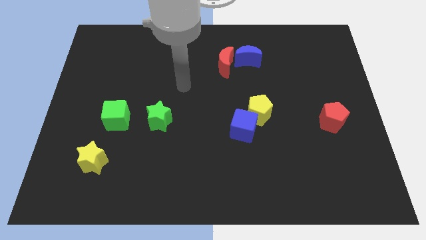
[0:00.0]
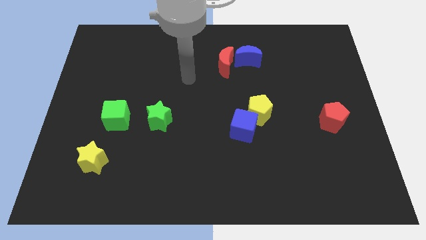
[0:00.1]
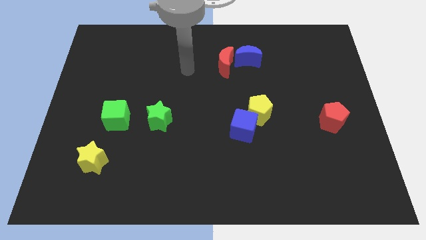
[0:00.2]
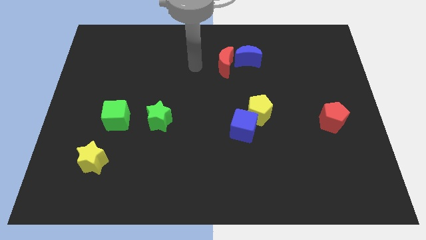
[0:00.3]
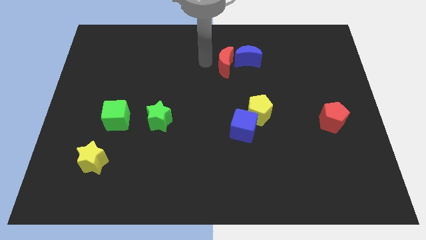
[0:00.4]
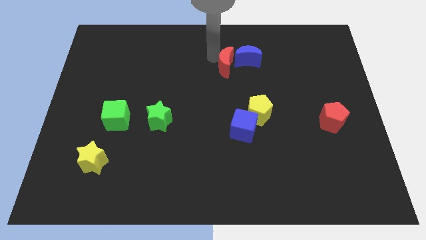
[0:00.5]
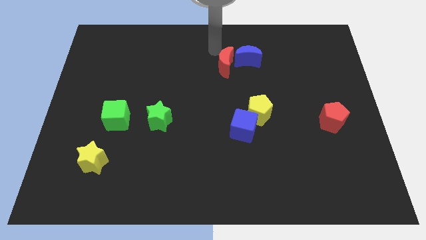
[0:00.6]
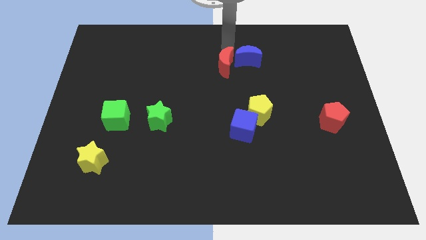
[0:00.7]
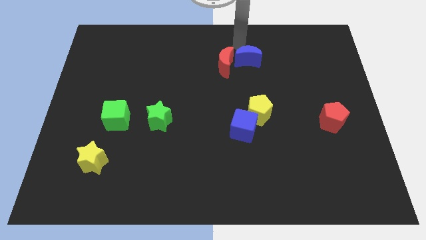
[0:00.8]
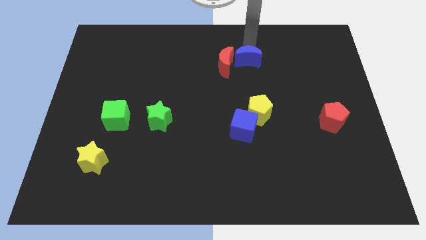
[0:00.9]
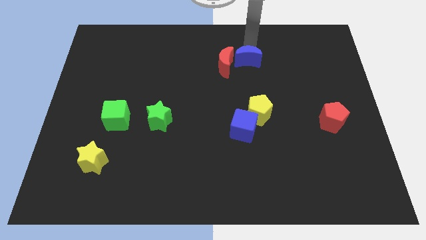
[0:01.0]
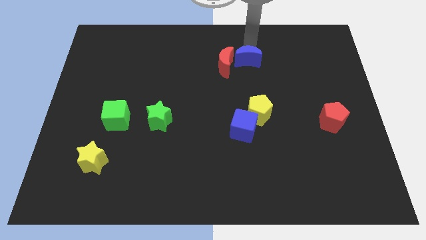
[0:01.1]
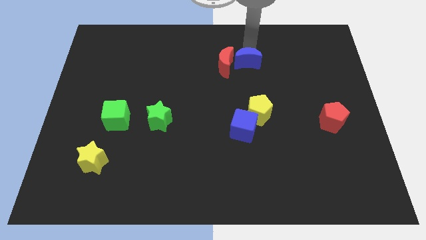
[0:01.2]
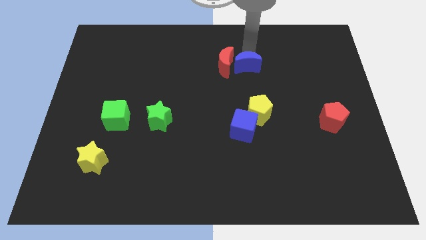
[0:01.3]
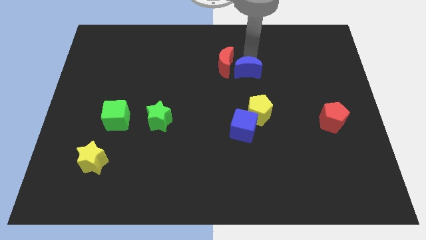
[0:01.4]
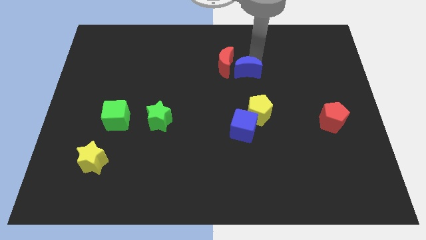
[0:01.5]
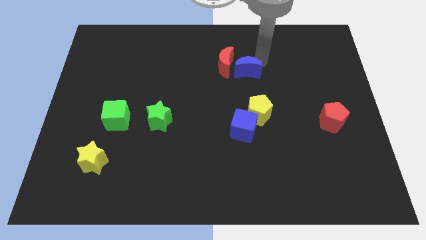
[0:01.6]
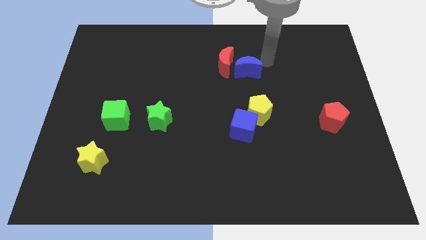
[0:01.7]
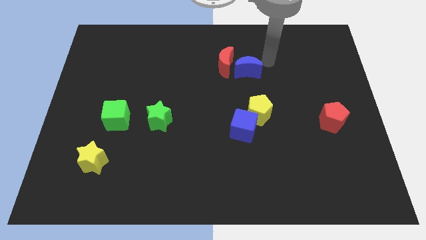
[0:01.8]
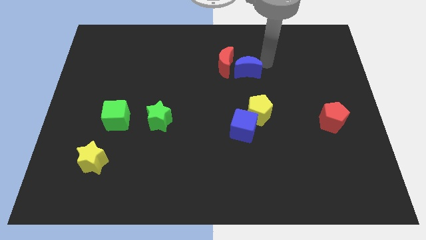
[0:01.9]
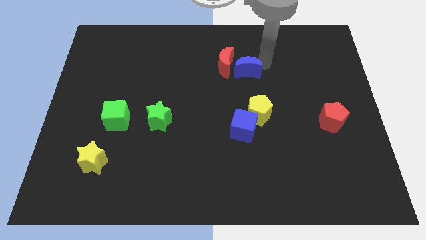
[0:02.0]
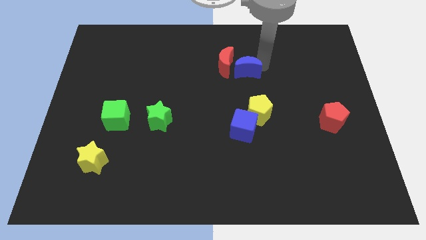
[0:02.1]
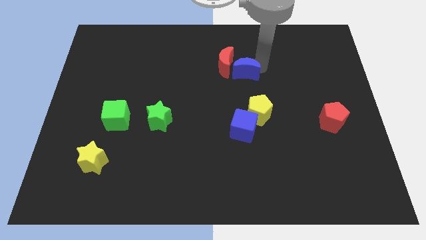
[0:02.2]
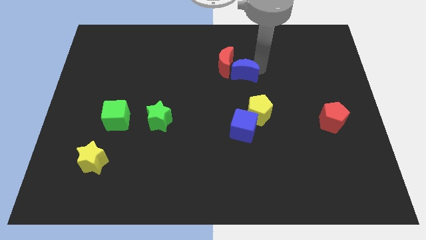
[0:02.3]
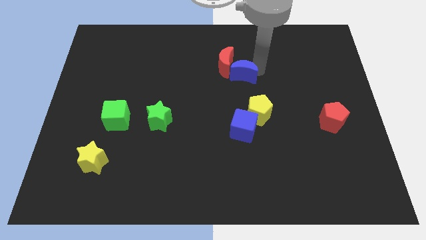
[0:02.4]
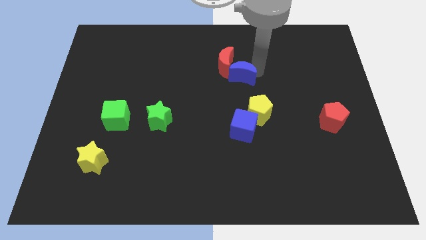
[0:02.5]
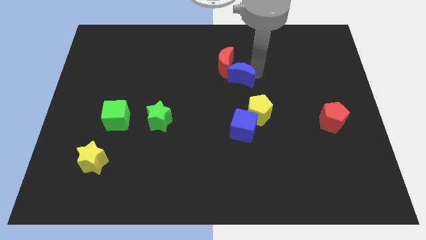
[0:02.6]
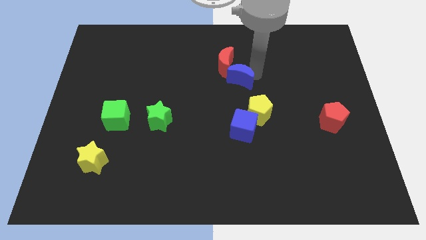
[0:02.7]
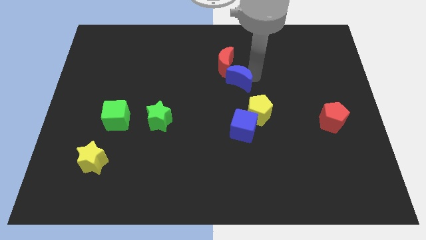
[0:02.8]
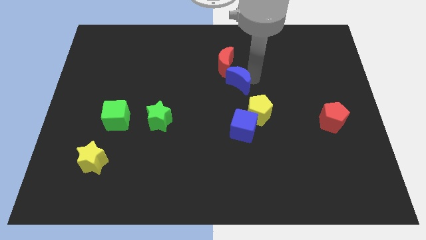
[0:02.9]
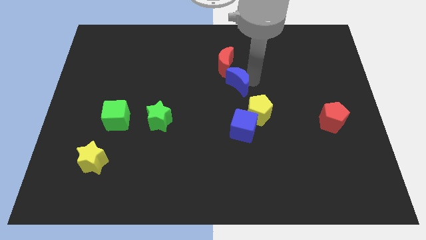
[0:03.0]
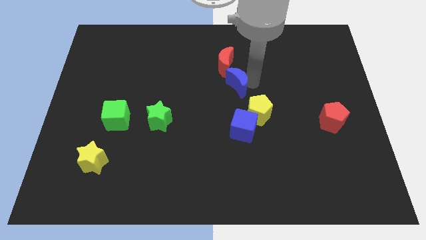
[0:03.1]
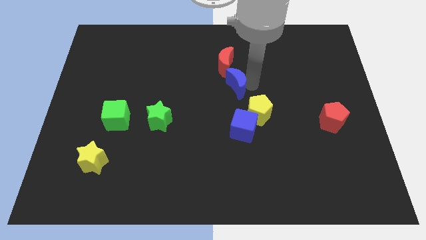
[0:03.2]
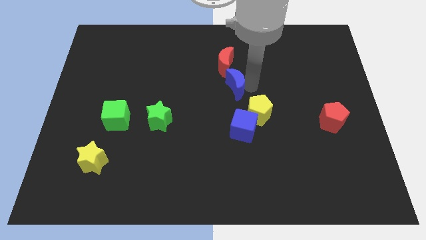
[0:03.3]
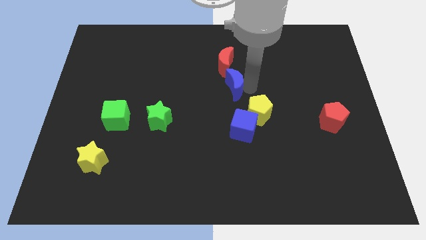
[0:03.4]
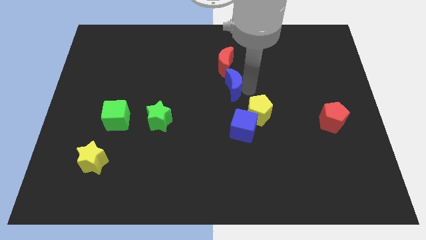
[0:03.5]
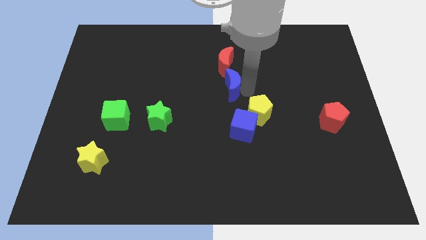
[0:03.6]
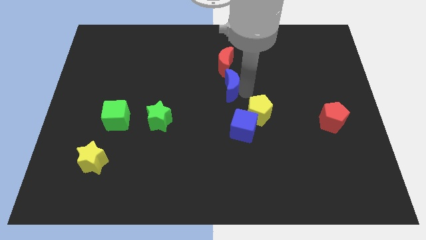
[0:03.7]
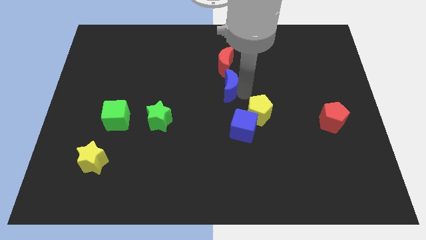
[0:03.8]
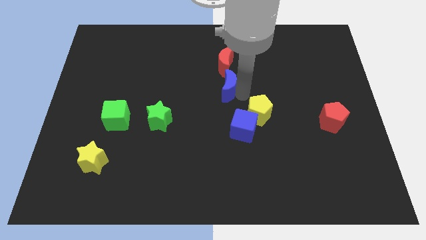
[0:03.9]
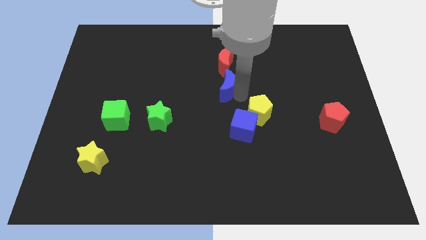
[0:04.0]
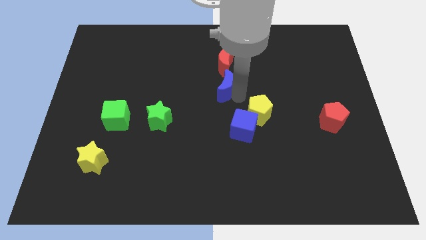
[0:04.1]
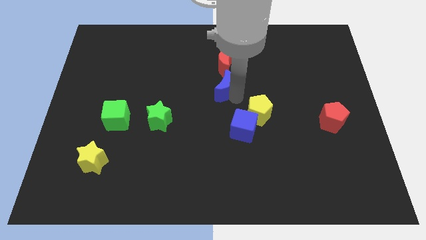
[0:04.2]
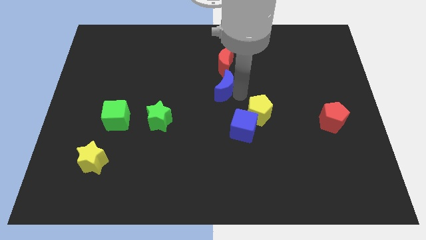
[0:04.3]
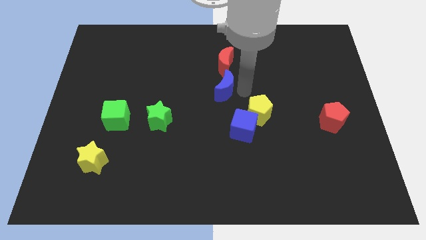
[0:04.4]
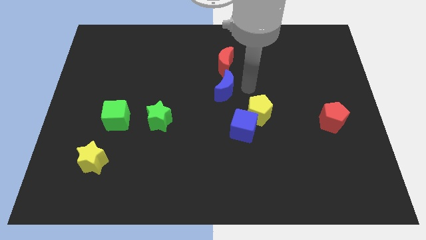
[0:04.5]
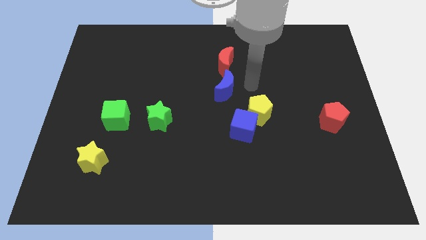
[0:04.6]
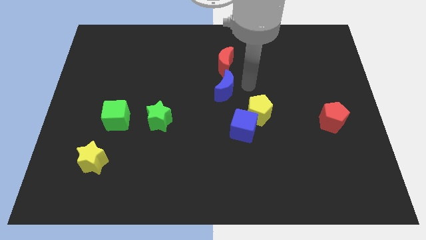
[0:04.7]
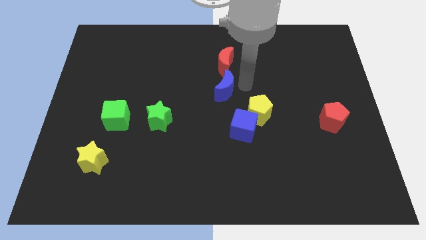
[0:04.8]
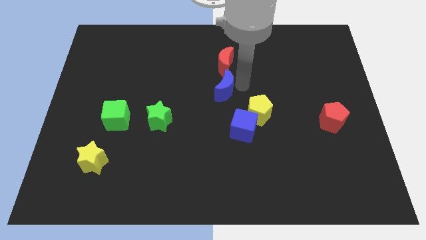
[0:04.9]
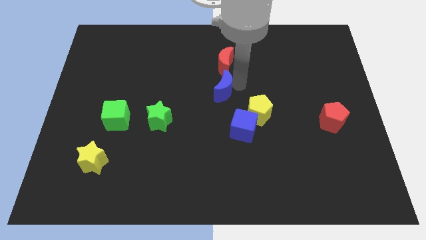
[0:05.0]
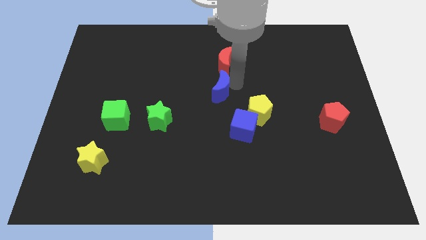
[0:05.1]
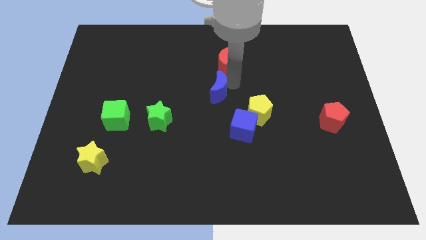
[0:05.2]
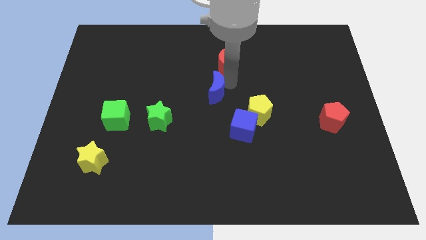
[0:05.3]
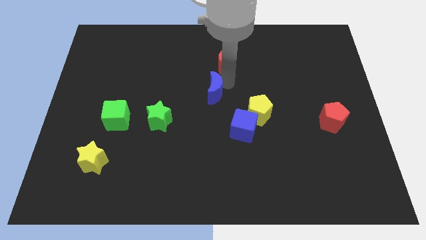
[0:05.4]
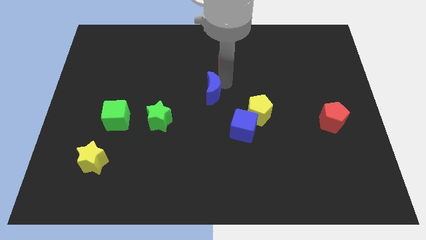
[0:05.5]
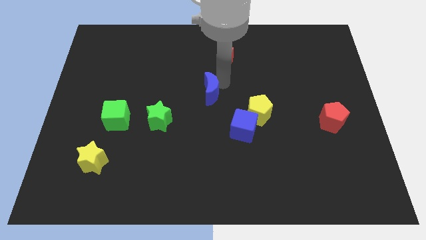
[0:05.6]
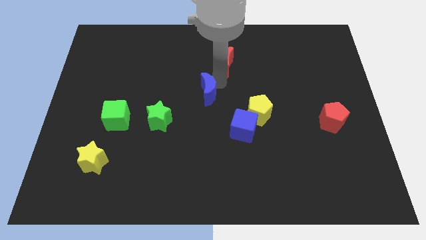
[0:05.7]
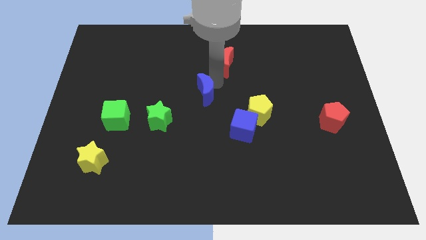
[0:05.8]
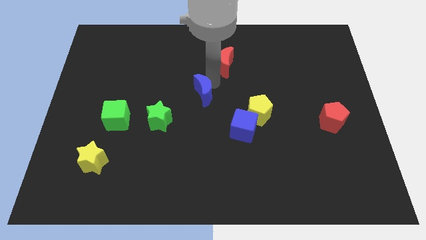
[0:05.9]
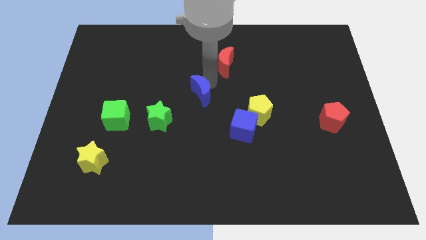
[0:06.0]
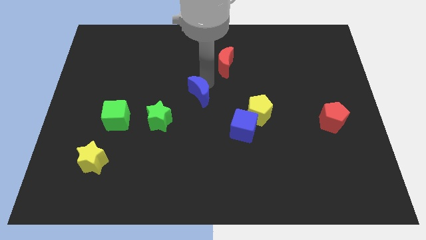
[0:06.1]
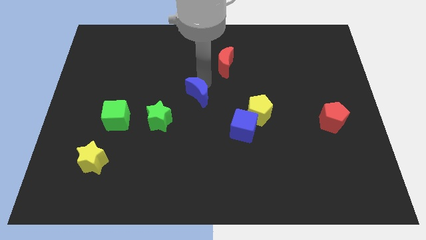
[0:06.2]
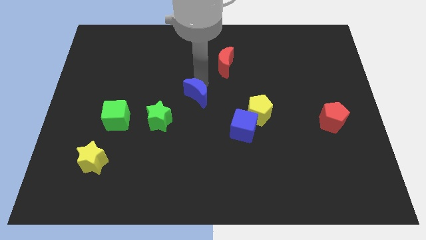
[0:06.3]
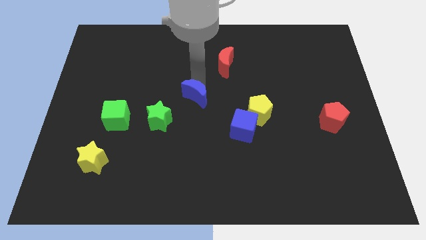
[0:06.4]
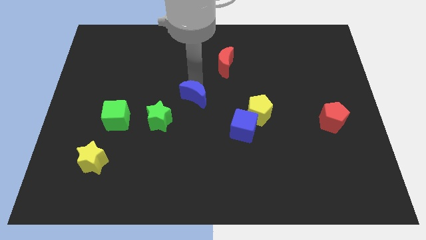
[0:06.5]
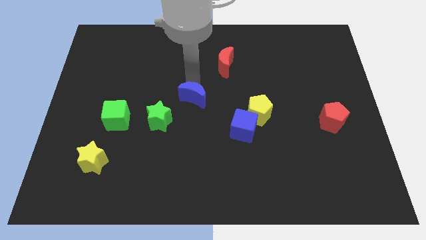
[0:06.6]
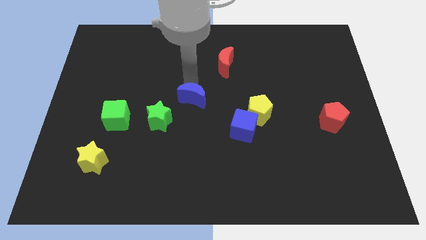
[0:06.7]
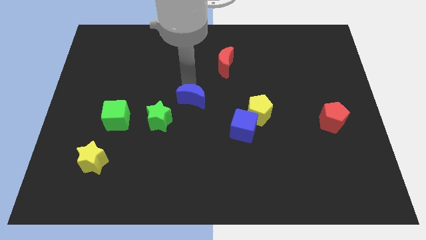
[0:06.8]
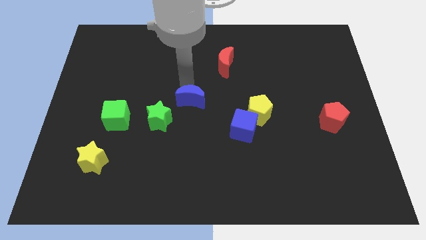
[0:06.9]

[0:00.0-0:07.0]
slide the blue moon diagonally down and left

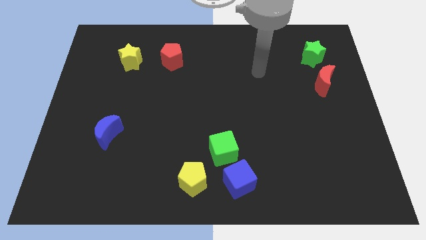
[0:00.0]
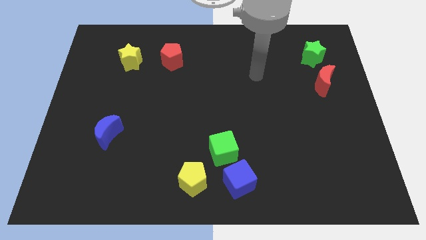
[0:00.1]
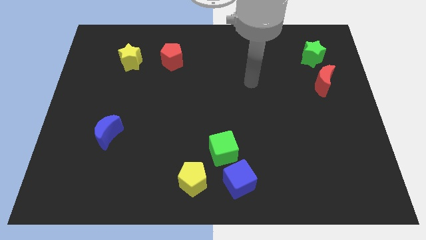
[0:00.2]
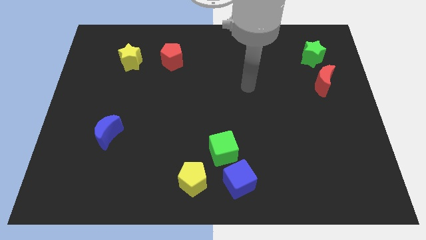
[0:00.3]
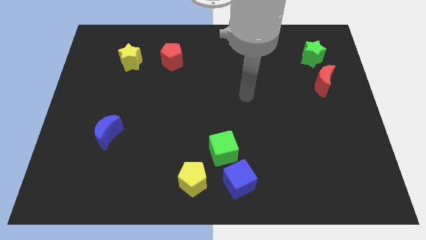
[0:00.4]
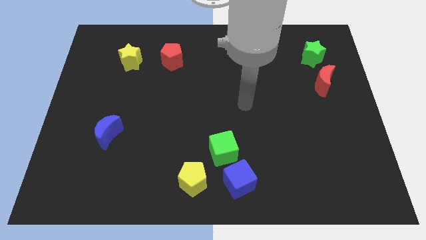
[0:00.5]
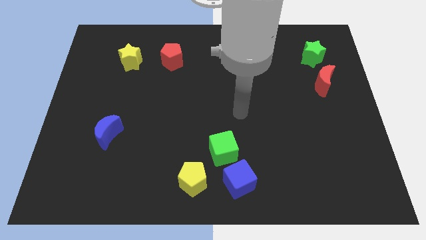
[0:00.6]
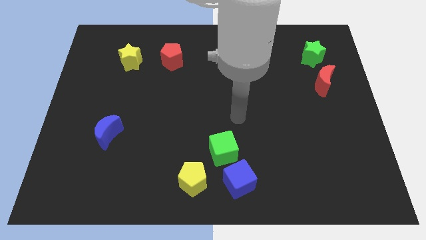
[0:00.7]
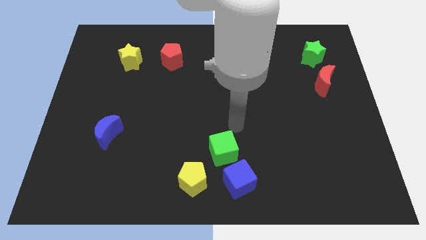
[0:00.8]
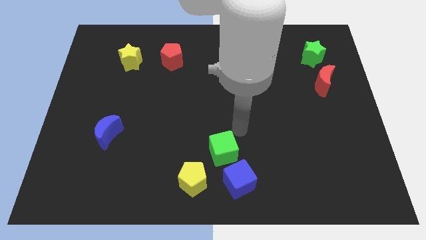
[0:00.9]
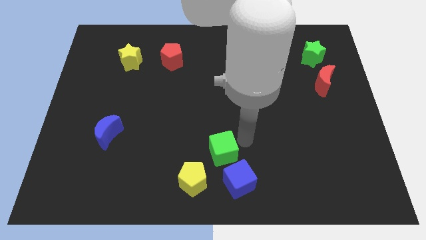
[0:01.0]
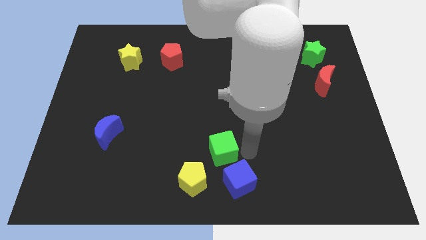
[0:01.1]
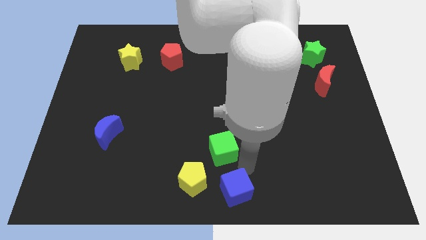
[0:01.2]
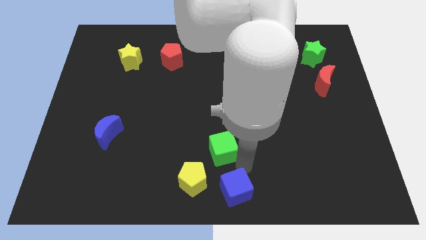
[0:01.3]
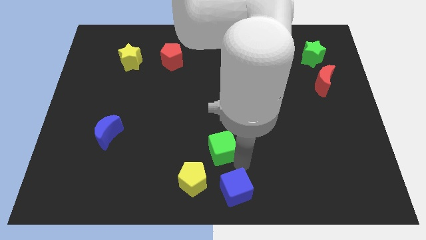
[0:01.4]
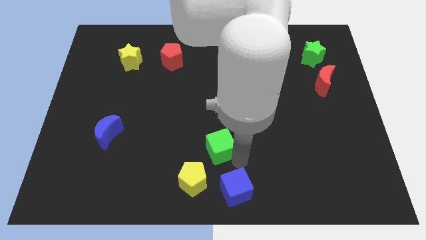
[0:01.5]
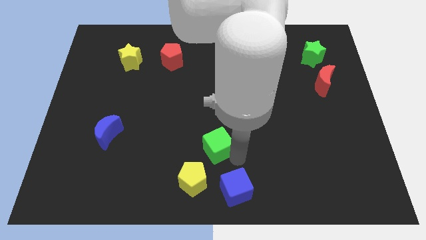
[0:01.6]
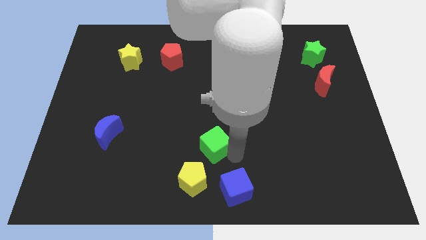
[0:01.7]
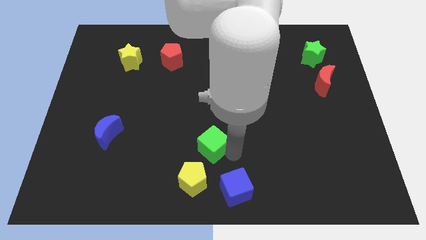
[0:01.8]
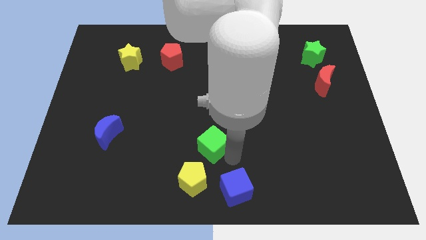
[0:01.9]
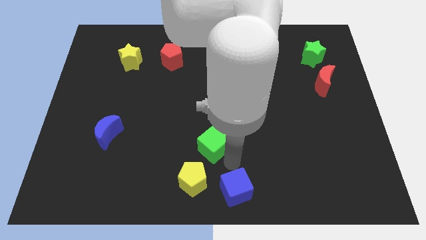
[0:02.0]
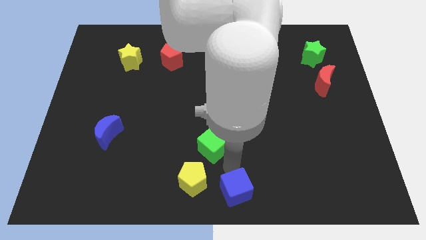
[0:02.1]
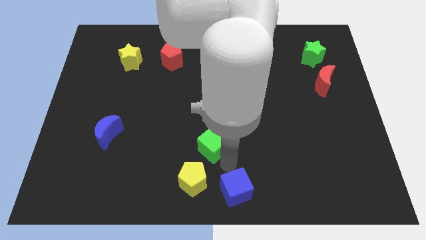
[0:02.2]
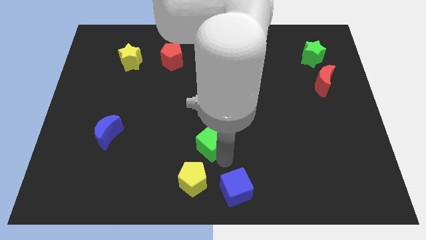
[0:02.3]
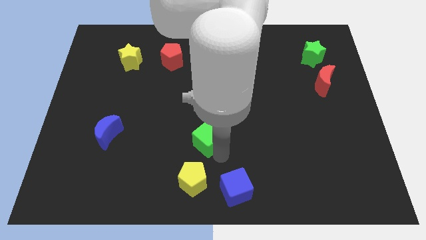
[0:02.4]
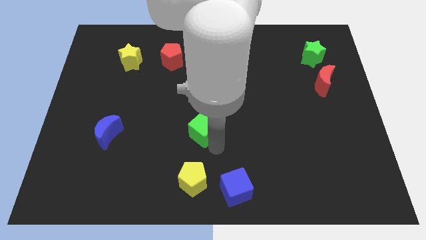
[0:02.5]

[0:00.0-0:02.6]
slightly push the green cube up and to the left
